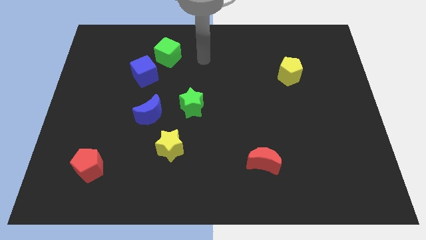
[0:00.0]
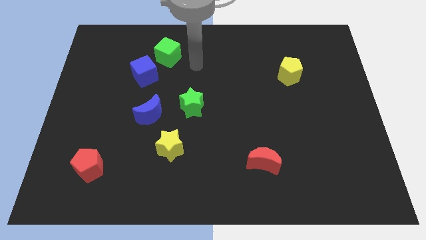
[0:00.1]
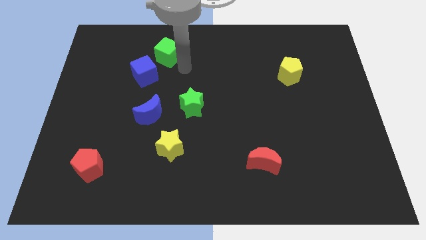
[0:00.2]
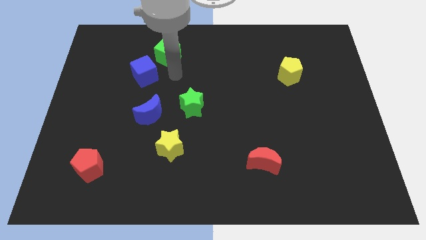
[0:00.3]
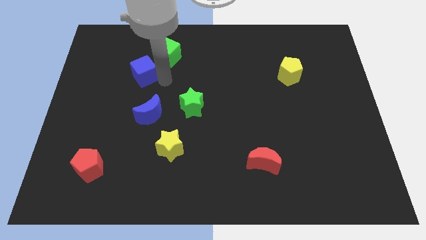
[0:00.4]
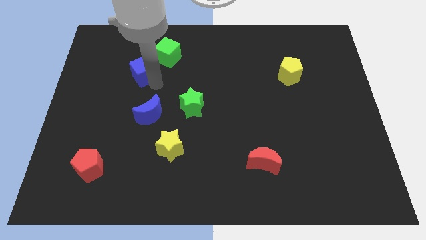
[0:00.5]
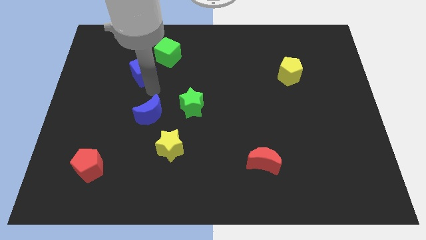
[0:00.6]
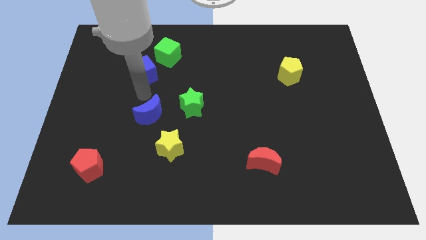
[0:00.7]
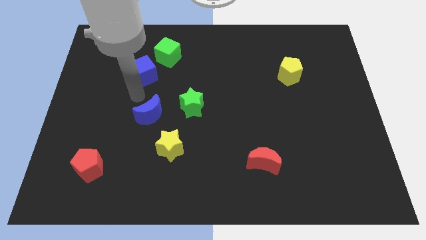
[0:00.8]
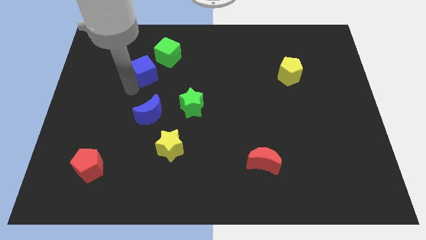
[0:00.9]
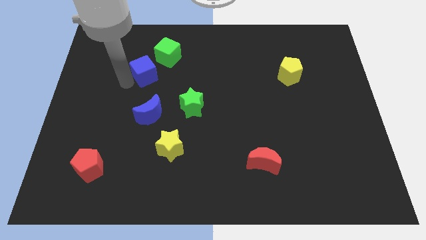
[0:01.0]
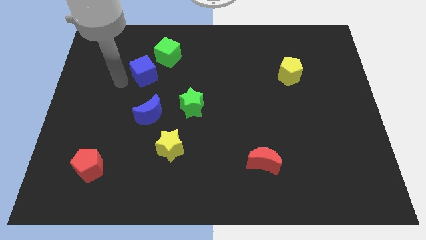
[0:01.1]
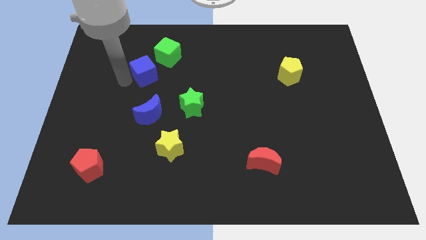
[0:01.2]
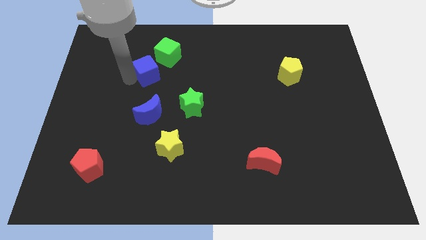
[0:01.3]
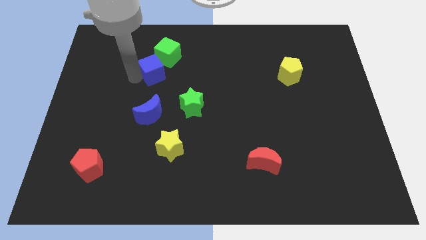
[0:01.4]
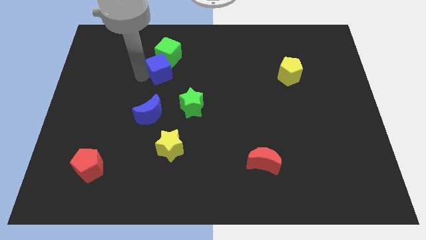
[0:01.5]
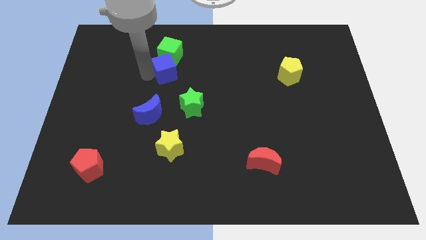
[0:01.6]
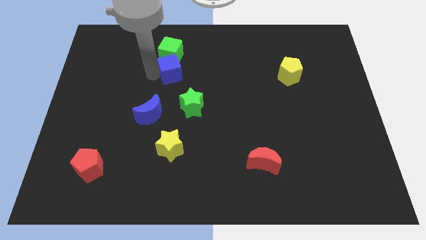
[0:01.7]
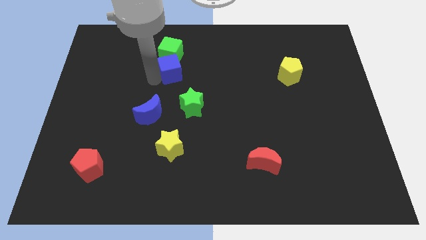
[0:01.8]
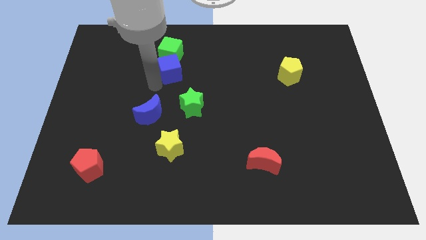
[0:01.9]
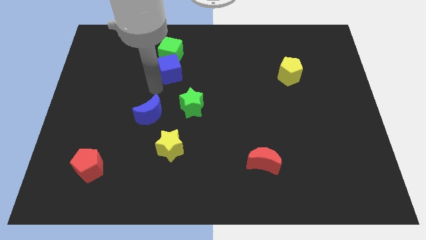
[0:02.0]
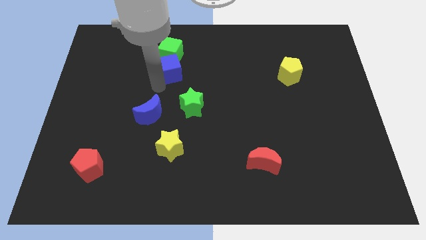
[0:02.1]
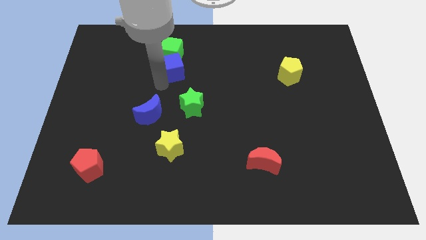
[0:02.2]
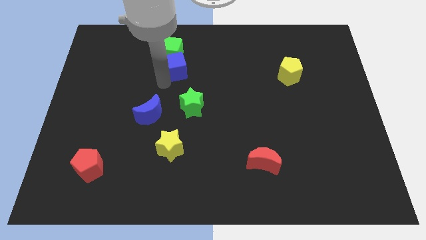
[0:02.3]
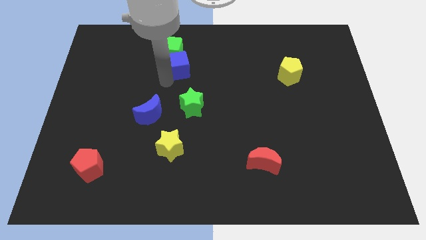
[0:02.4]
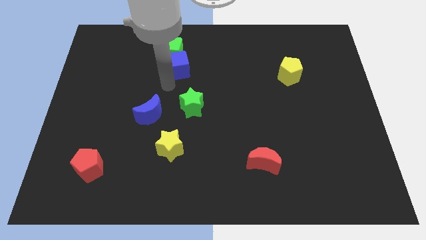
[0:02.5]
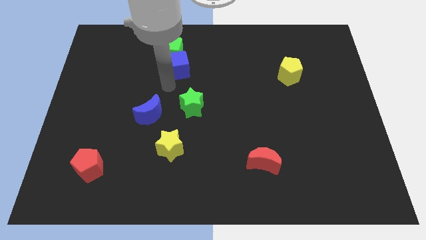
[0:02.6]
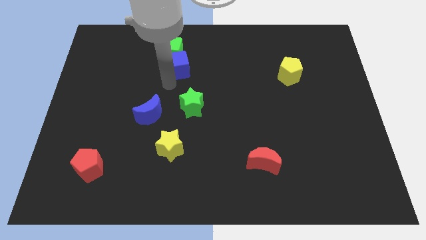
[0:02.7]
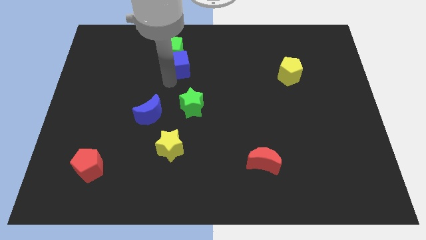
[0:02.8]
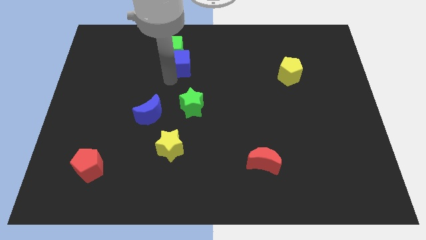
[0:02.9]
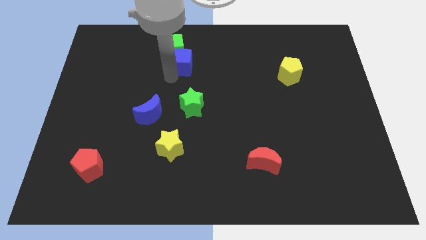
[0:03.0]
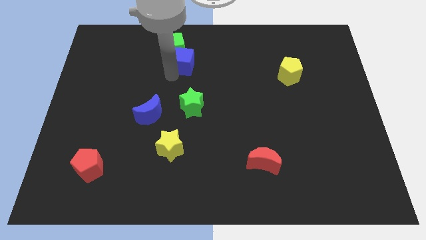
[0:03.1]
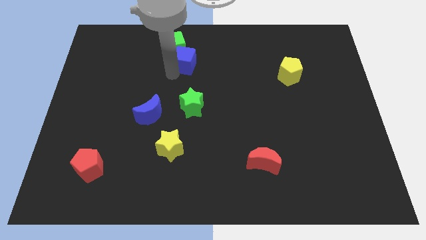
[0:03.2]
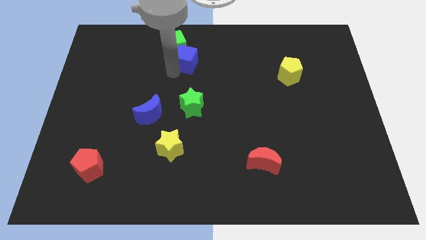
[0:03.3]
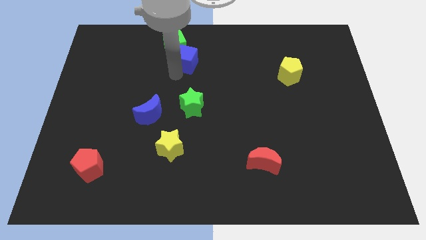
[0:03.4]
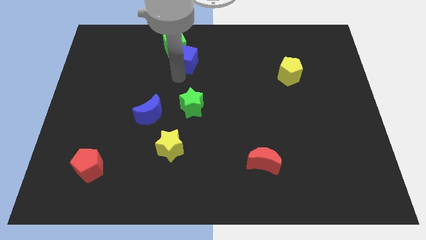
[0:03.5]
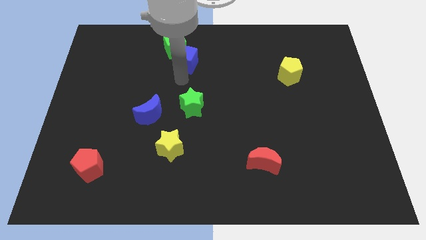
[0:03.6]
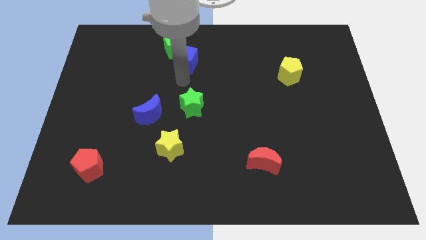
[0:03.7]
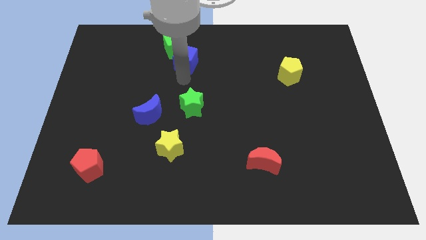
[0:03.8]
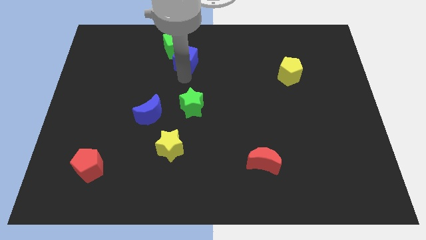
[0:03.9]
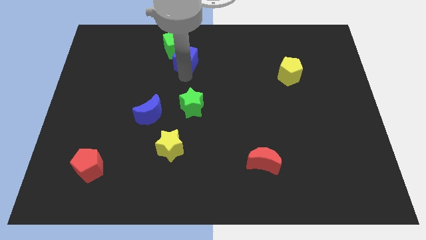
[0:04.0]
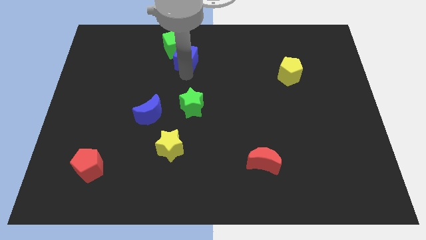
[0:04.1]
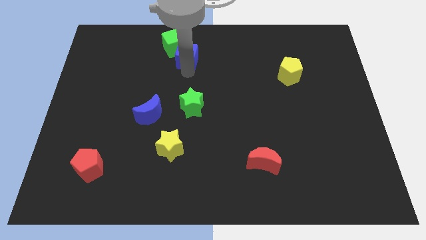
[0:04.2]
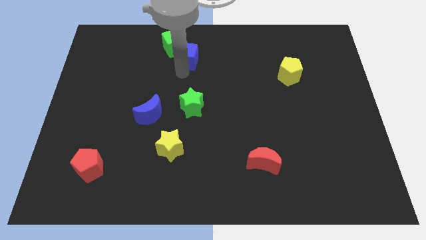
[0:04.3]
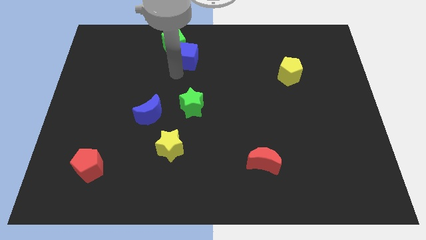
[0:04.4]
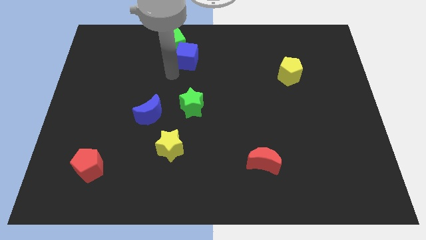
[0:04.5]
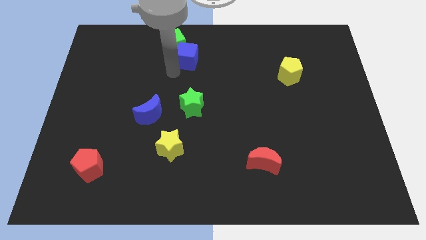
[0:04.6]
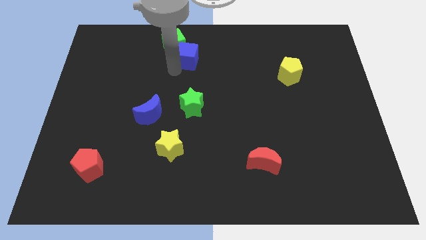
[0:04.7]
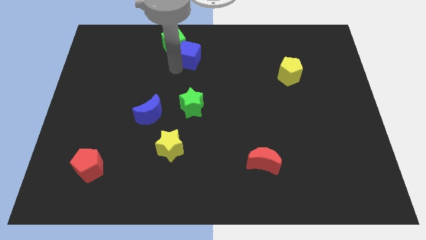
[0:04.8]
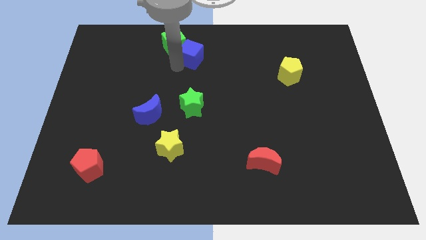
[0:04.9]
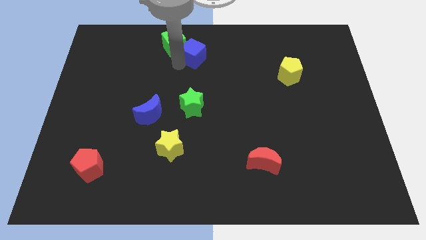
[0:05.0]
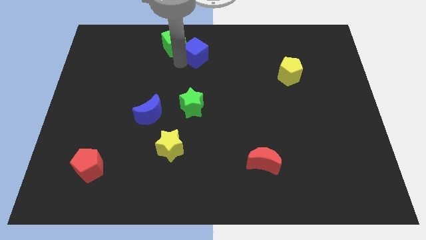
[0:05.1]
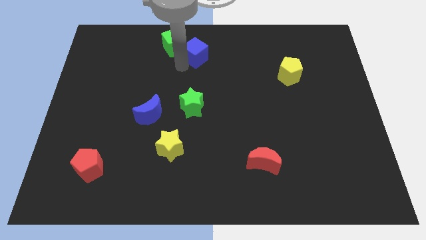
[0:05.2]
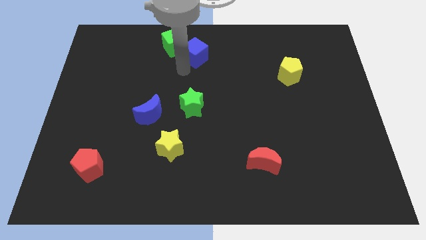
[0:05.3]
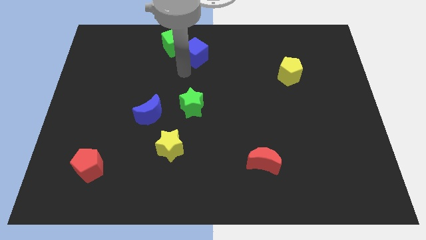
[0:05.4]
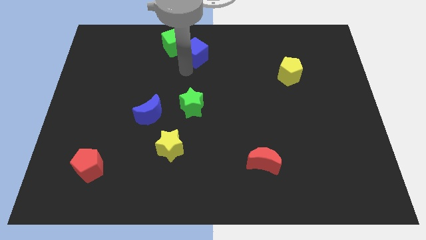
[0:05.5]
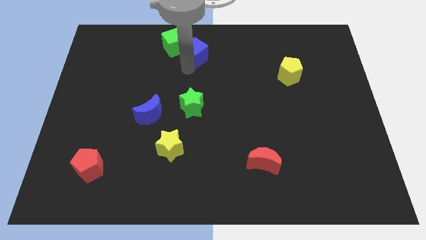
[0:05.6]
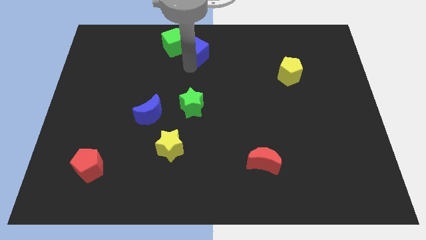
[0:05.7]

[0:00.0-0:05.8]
put the blue cube to the towards your base

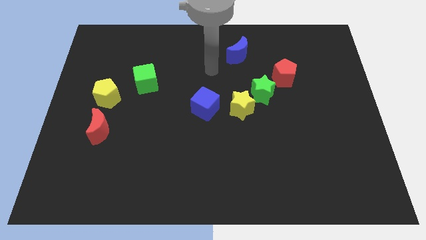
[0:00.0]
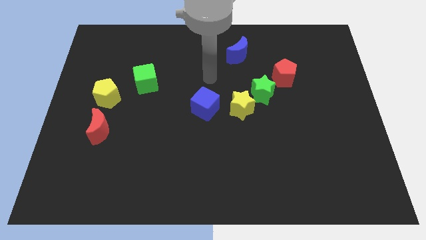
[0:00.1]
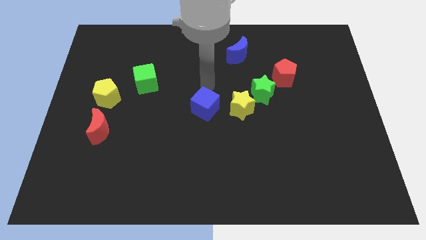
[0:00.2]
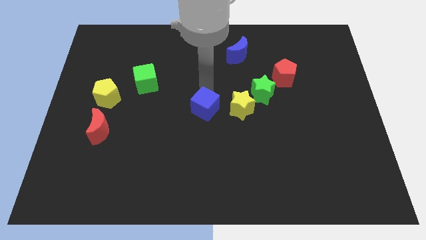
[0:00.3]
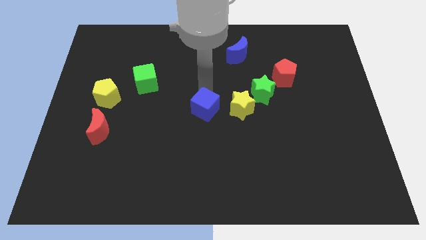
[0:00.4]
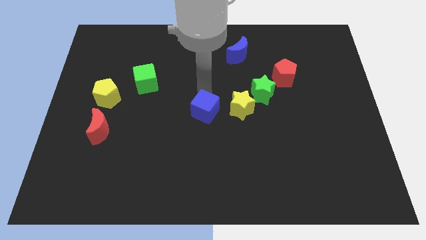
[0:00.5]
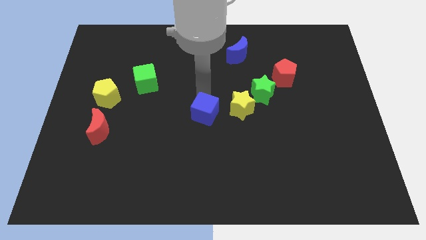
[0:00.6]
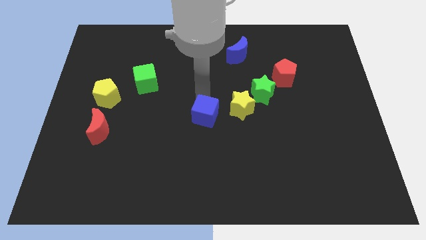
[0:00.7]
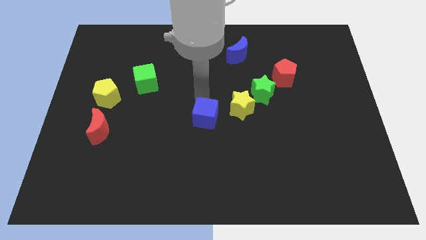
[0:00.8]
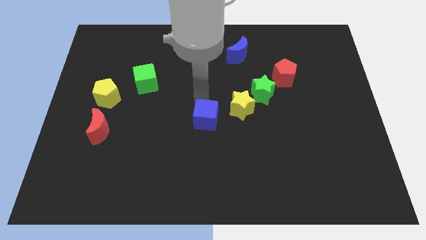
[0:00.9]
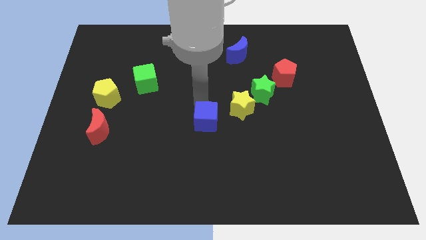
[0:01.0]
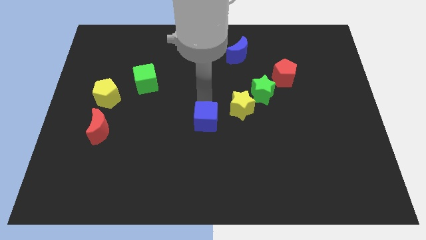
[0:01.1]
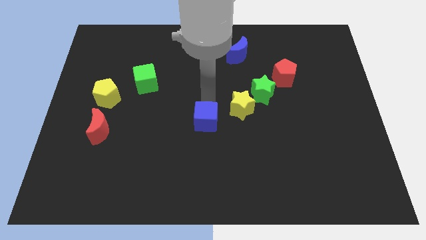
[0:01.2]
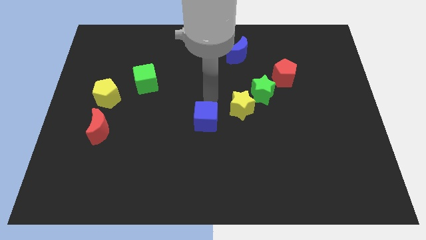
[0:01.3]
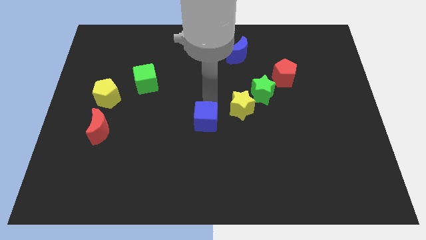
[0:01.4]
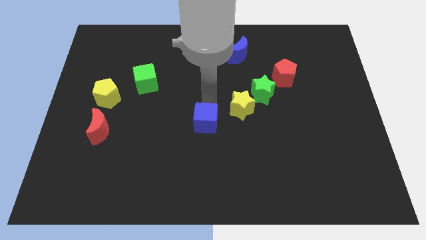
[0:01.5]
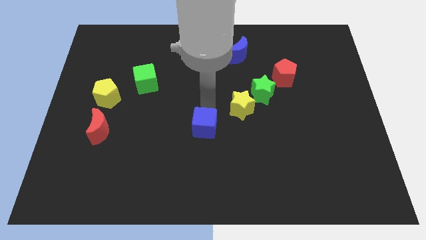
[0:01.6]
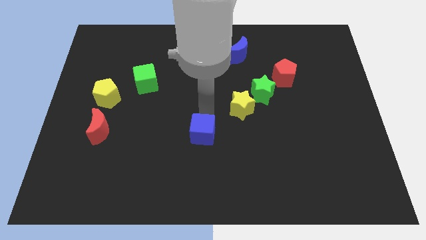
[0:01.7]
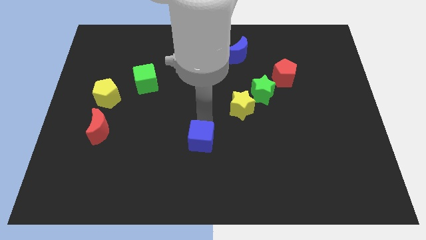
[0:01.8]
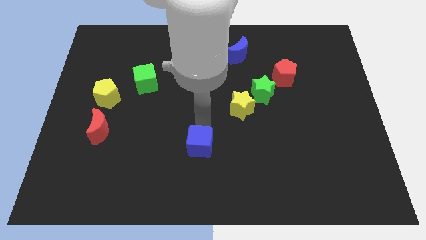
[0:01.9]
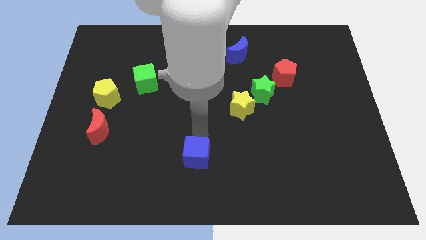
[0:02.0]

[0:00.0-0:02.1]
slide the blue cube to the bottom side
